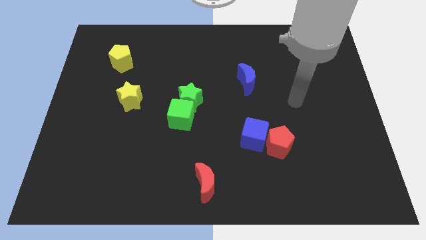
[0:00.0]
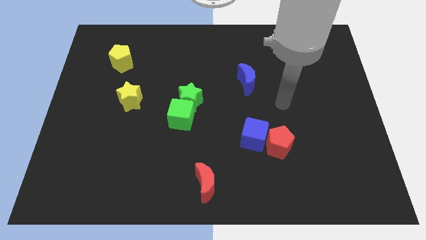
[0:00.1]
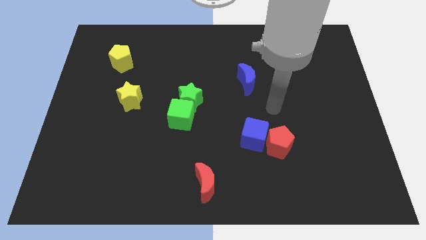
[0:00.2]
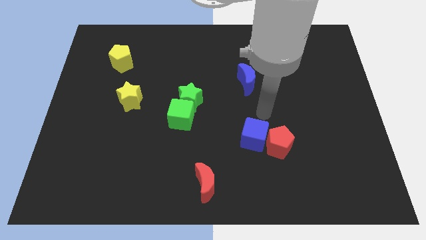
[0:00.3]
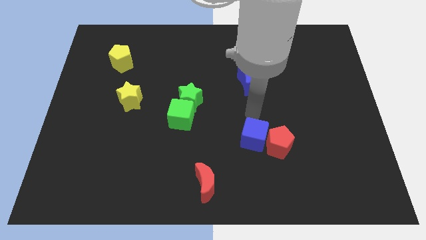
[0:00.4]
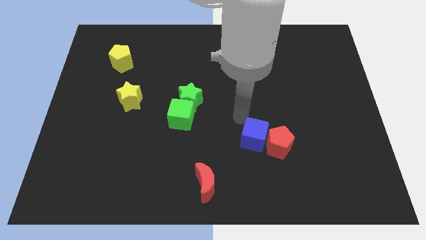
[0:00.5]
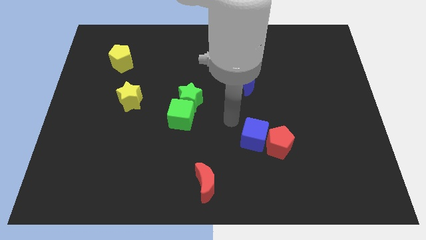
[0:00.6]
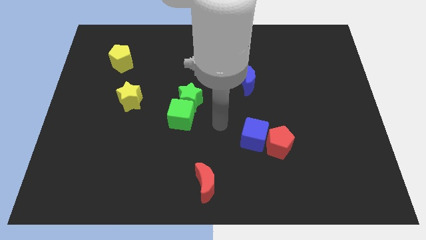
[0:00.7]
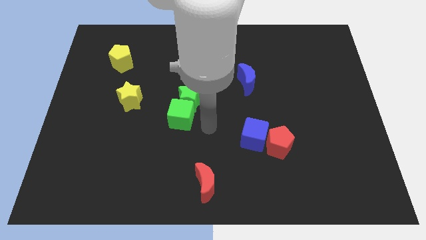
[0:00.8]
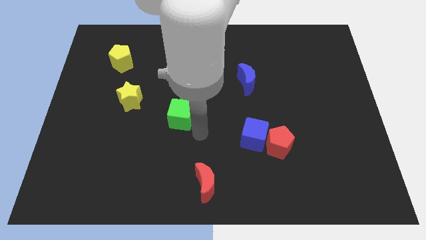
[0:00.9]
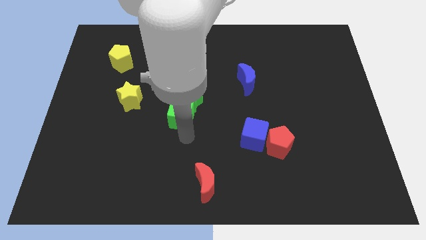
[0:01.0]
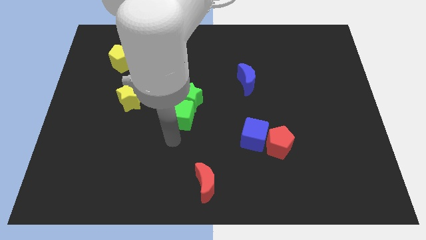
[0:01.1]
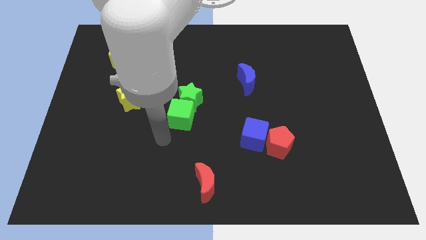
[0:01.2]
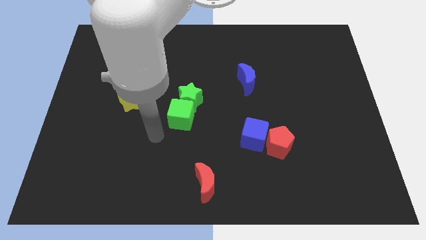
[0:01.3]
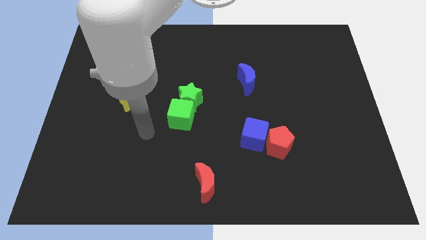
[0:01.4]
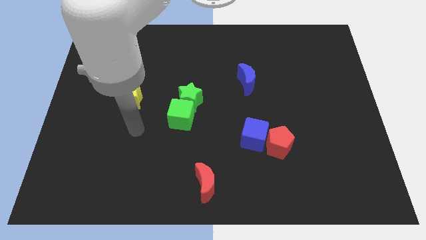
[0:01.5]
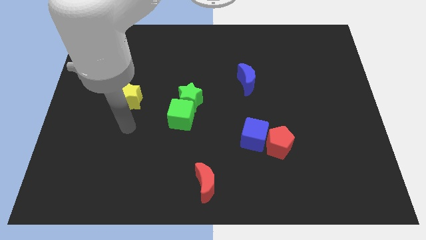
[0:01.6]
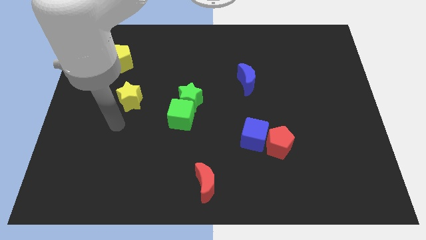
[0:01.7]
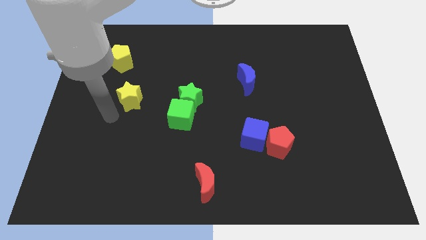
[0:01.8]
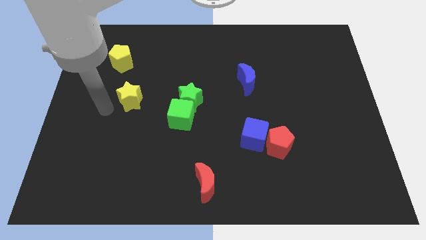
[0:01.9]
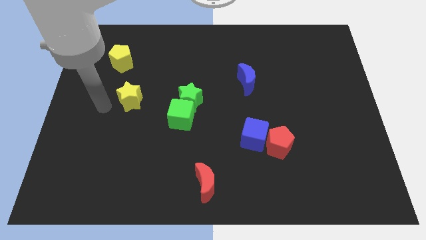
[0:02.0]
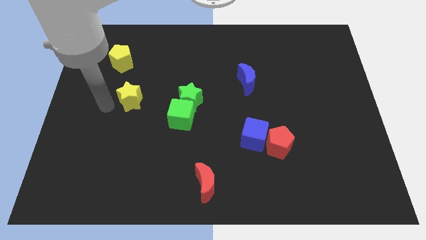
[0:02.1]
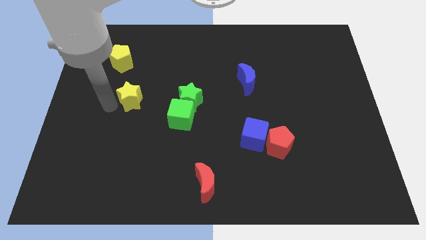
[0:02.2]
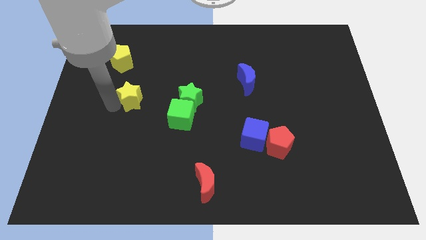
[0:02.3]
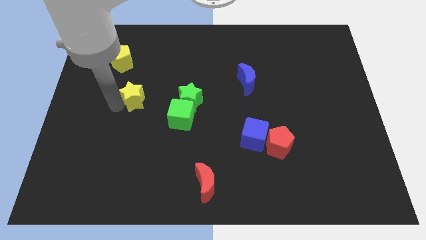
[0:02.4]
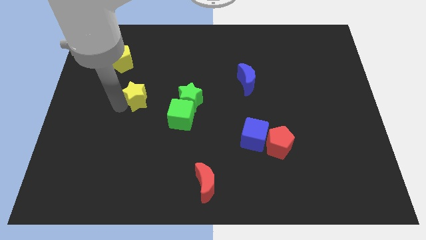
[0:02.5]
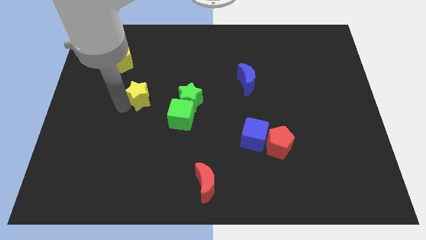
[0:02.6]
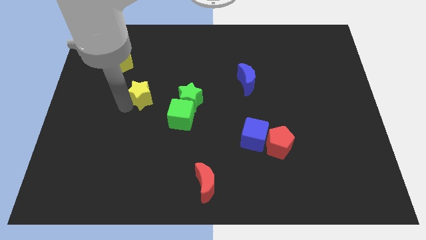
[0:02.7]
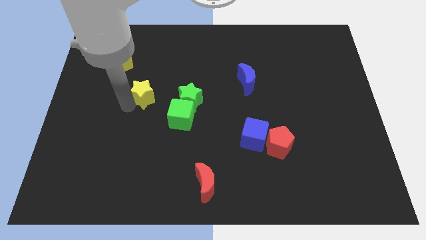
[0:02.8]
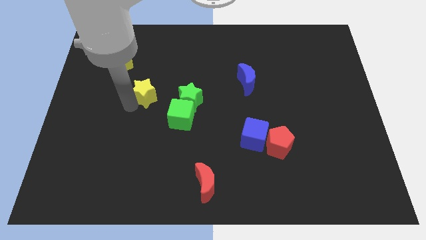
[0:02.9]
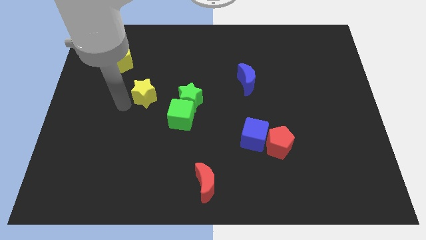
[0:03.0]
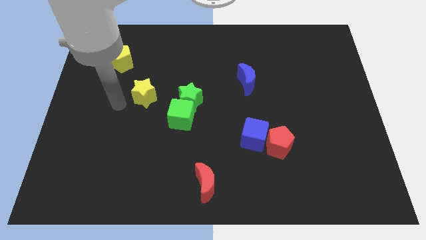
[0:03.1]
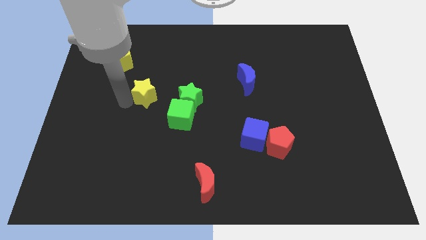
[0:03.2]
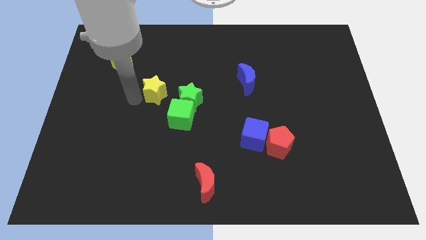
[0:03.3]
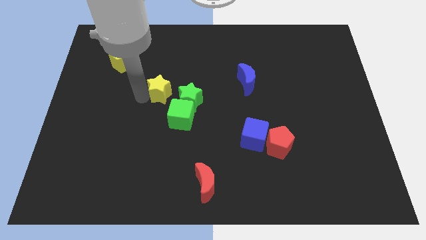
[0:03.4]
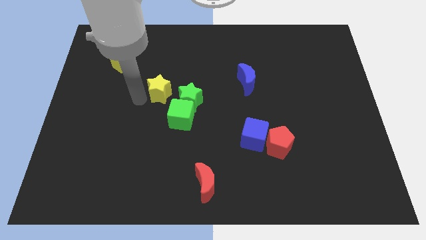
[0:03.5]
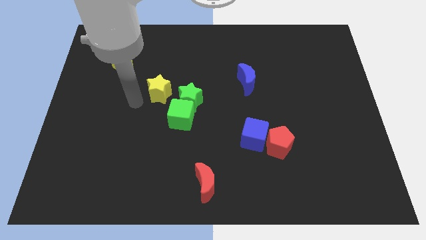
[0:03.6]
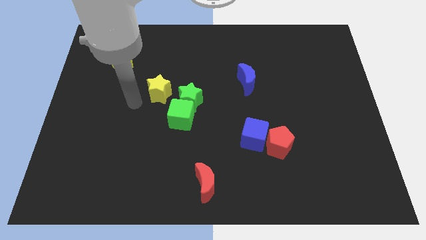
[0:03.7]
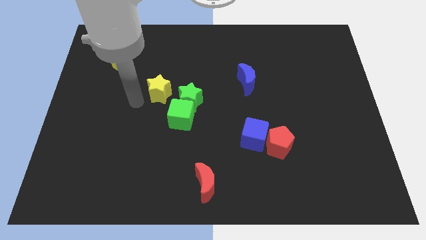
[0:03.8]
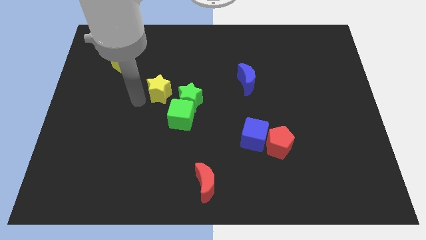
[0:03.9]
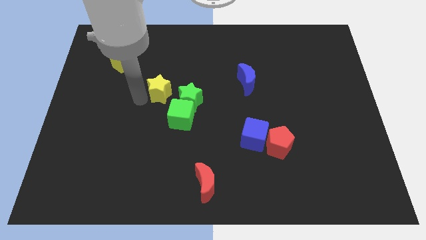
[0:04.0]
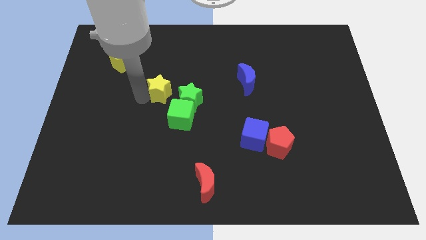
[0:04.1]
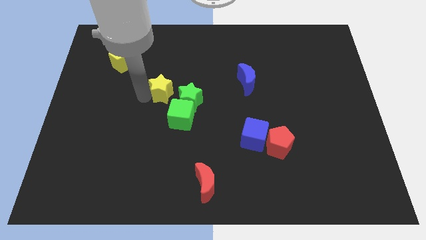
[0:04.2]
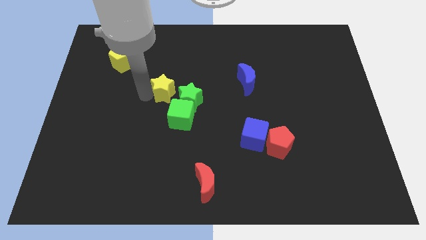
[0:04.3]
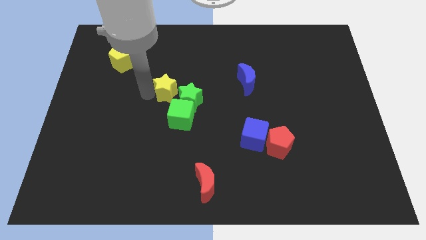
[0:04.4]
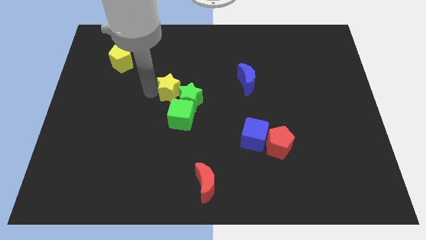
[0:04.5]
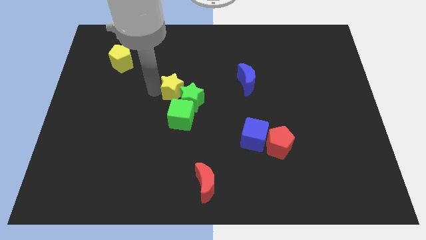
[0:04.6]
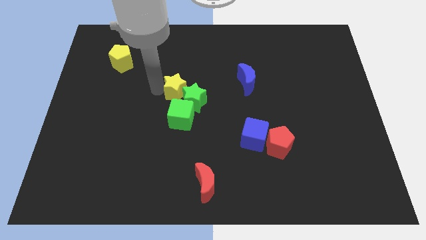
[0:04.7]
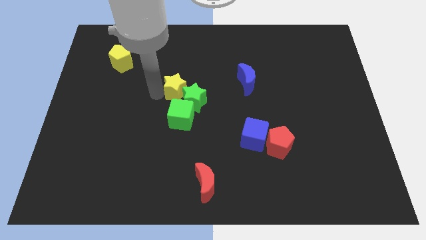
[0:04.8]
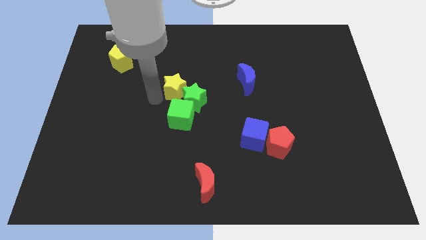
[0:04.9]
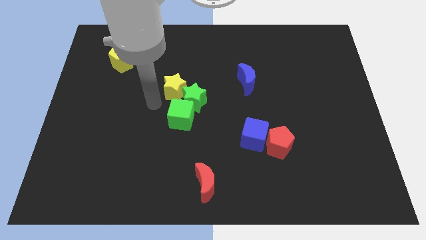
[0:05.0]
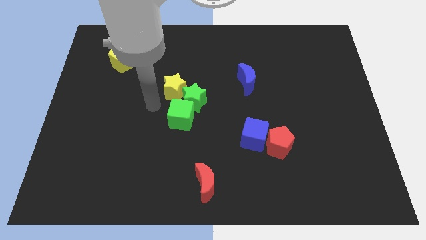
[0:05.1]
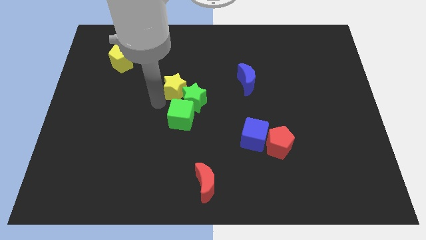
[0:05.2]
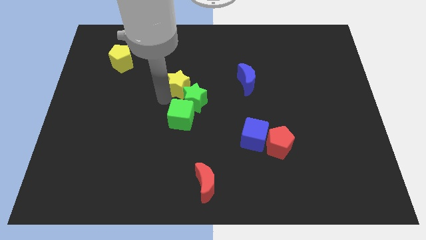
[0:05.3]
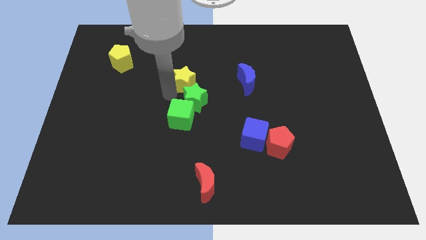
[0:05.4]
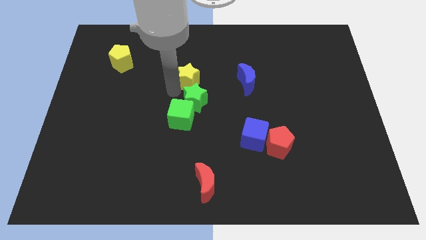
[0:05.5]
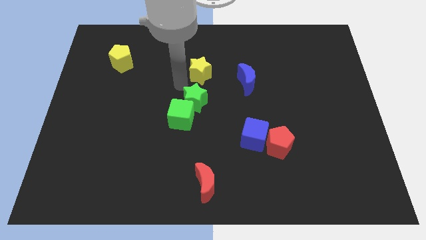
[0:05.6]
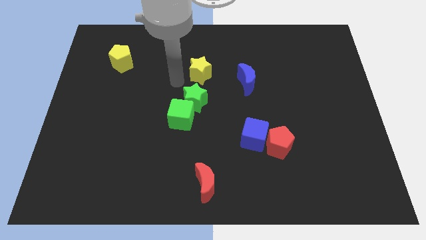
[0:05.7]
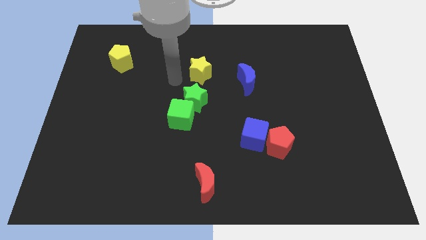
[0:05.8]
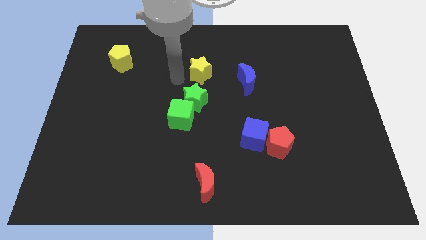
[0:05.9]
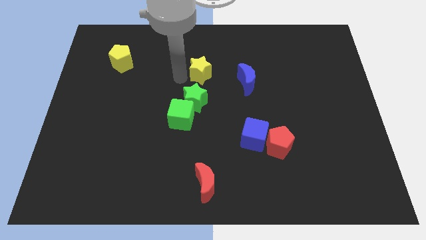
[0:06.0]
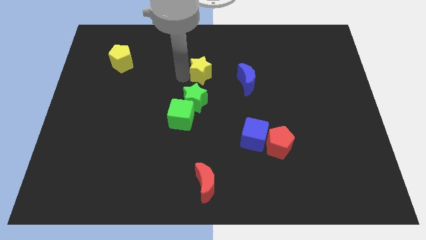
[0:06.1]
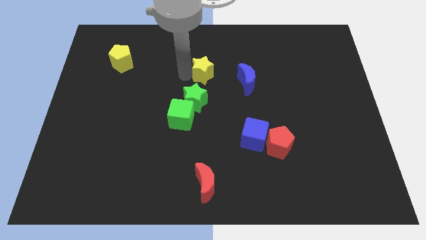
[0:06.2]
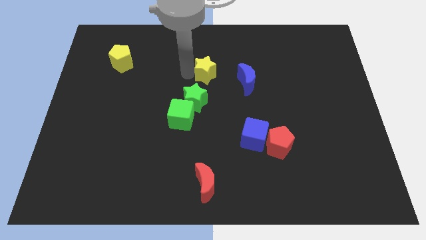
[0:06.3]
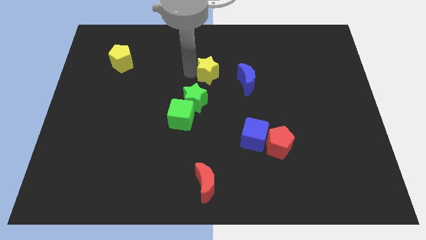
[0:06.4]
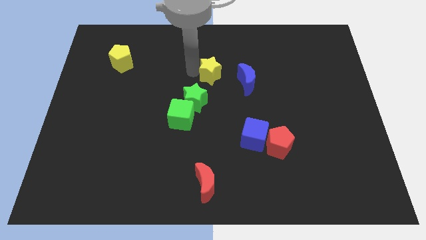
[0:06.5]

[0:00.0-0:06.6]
push the yellow star to the top left of the blue moon
